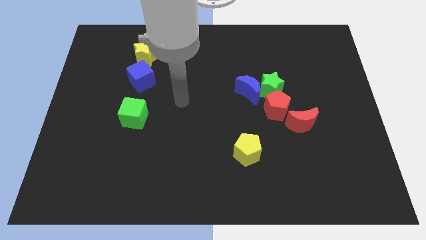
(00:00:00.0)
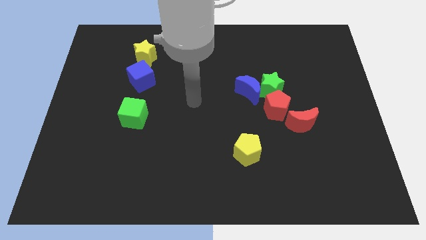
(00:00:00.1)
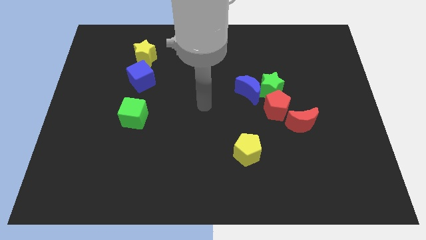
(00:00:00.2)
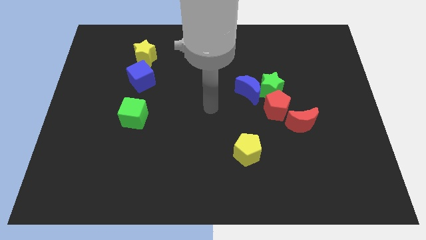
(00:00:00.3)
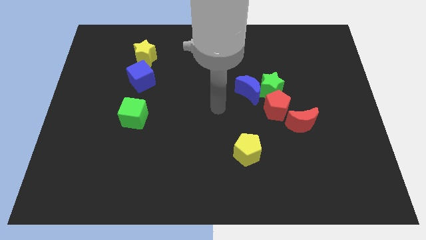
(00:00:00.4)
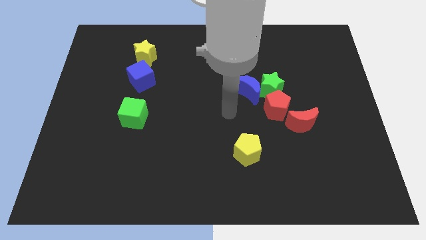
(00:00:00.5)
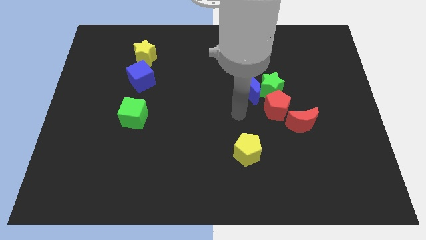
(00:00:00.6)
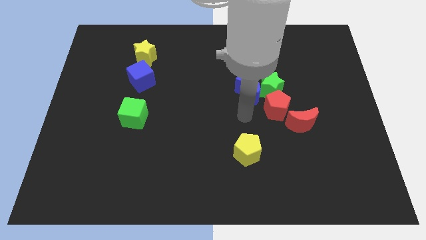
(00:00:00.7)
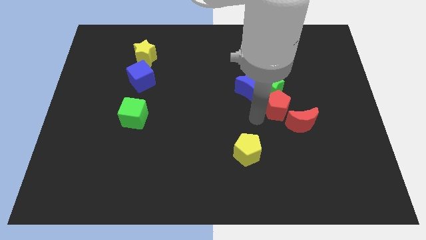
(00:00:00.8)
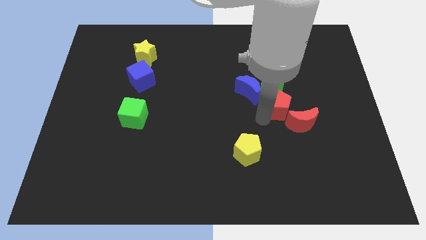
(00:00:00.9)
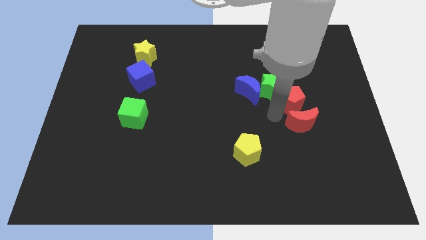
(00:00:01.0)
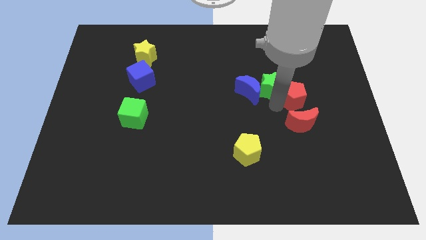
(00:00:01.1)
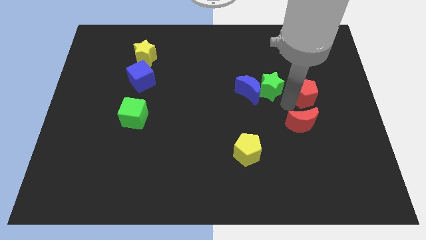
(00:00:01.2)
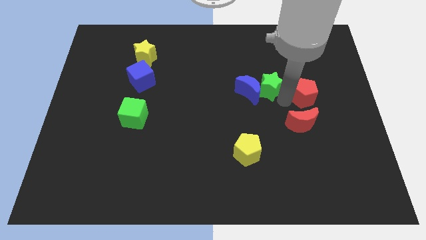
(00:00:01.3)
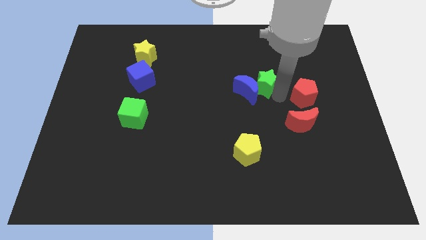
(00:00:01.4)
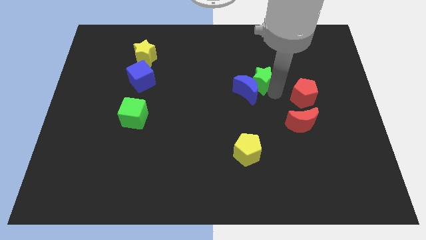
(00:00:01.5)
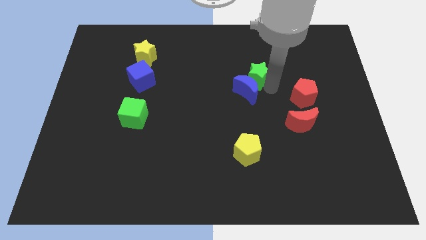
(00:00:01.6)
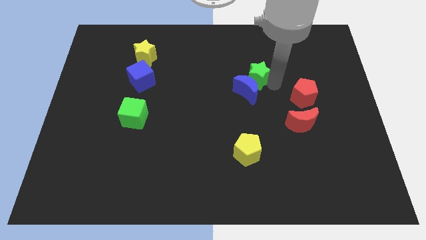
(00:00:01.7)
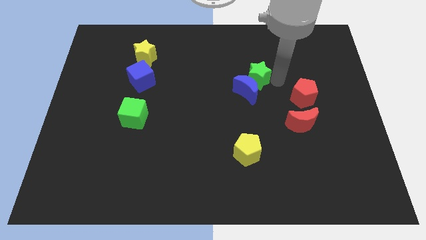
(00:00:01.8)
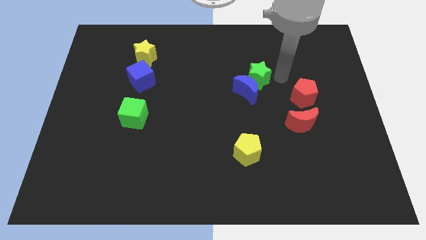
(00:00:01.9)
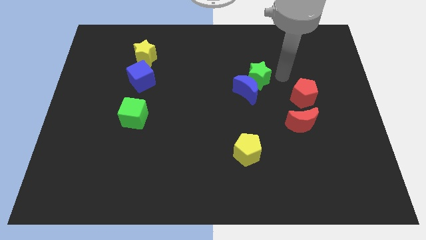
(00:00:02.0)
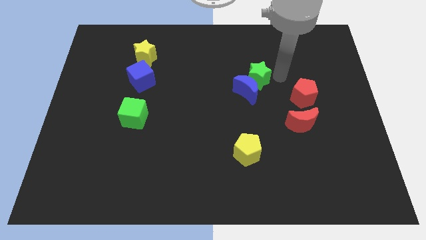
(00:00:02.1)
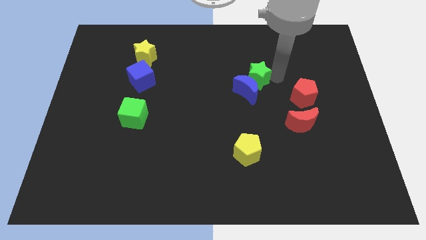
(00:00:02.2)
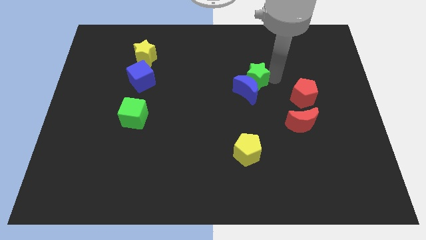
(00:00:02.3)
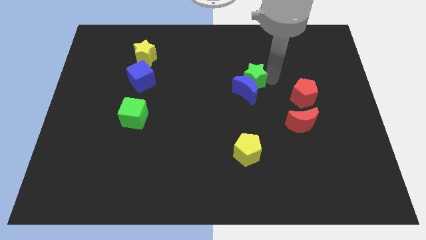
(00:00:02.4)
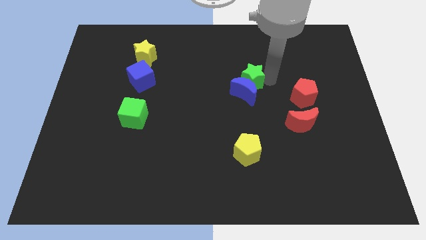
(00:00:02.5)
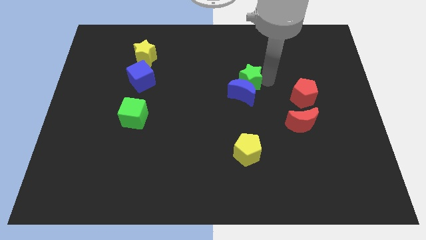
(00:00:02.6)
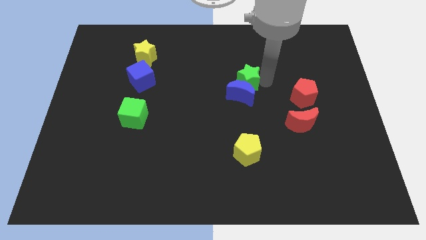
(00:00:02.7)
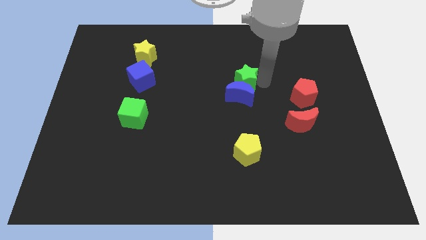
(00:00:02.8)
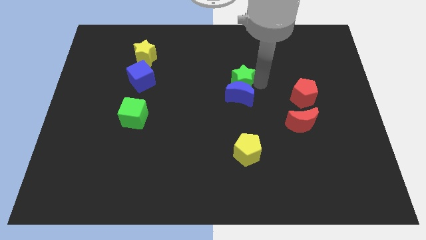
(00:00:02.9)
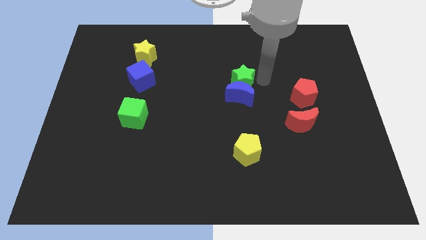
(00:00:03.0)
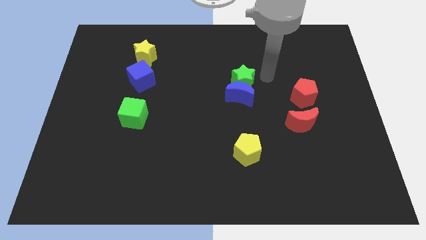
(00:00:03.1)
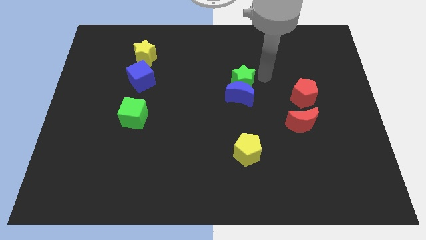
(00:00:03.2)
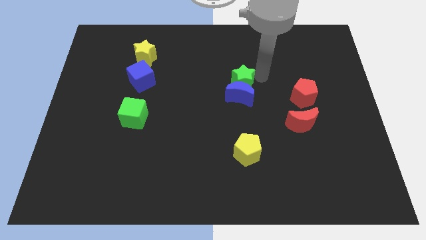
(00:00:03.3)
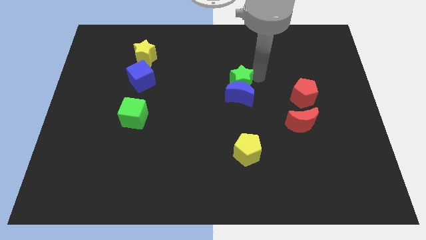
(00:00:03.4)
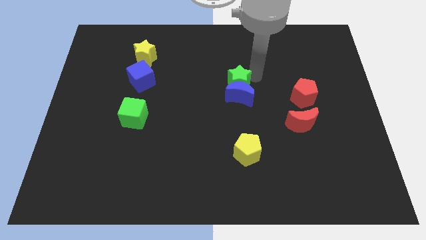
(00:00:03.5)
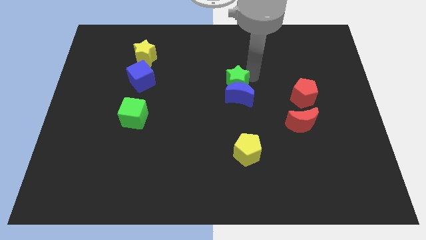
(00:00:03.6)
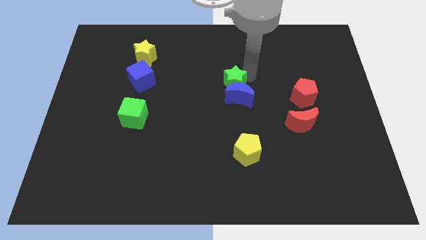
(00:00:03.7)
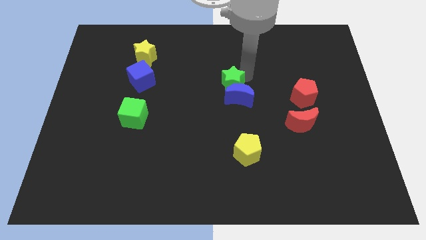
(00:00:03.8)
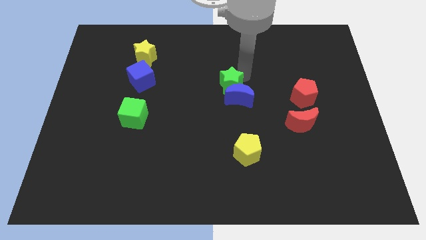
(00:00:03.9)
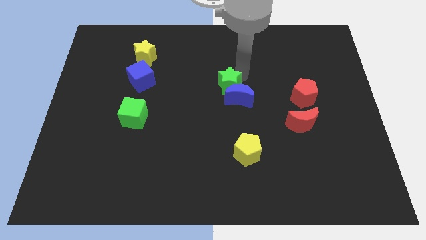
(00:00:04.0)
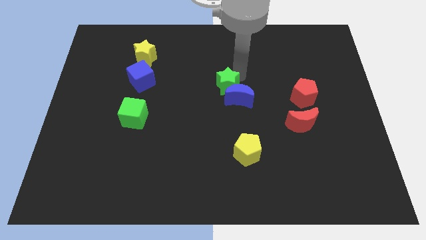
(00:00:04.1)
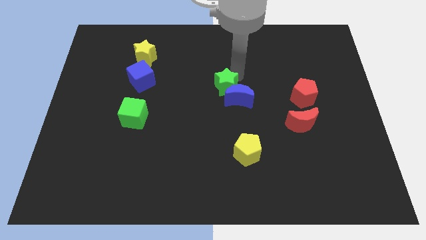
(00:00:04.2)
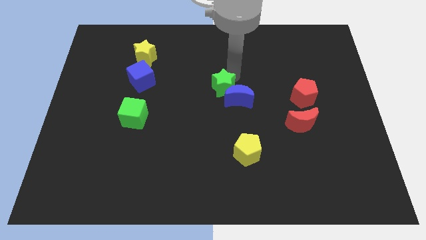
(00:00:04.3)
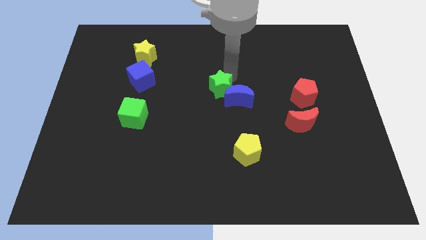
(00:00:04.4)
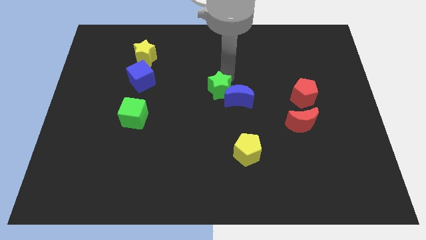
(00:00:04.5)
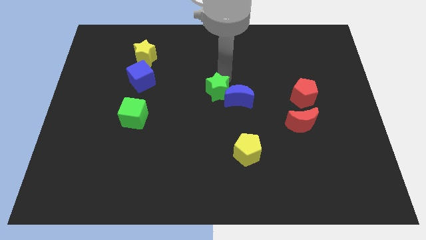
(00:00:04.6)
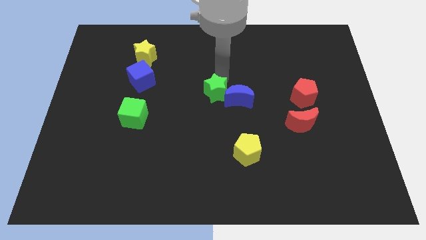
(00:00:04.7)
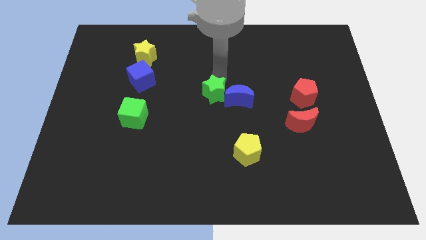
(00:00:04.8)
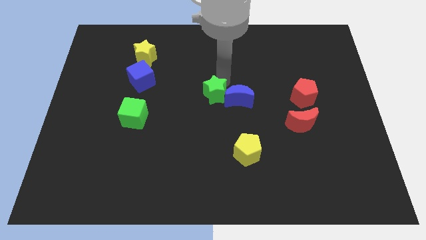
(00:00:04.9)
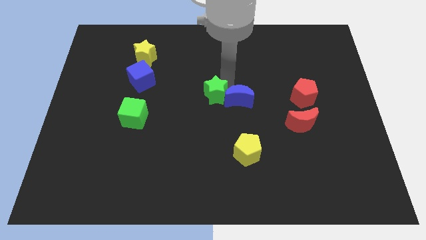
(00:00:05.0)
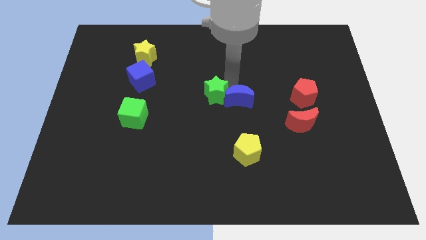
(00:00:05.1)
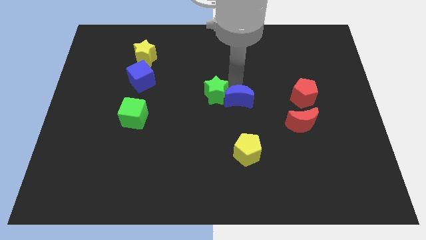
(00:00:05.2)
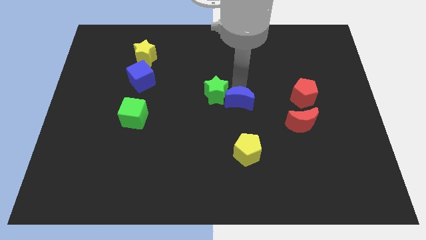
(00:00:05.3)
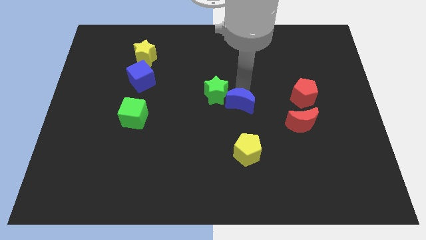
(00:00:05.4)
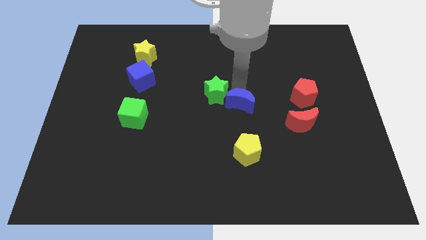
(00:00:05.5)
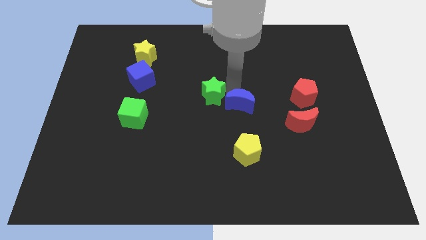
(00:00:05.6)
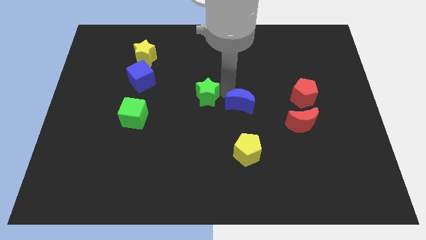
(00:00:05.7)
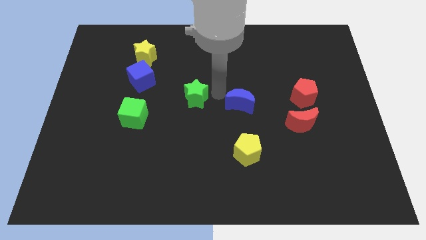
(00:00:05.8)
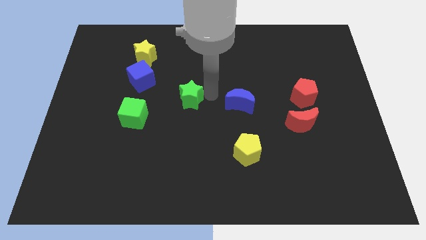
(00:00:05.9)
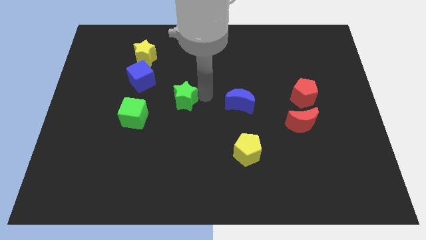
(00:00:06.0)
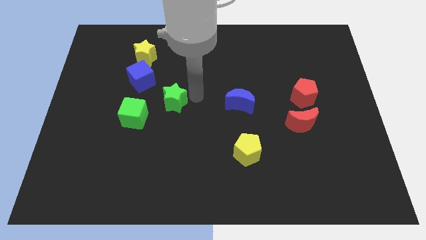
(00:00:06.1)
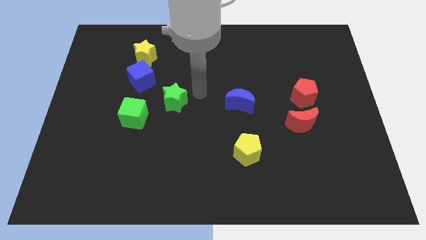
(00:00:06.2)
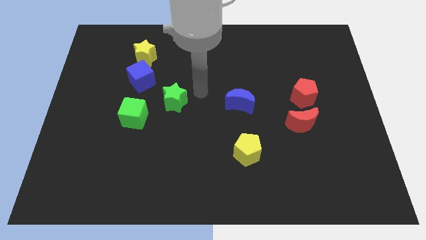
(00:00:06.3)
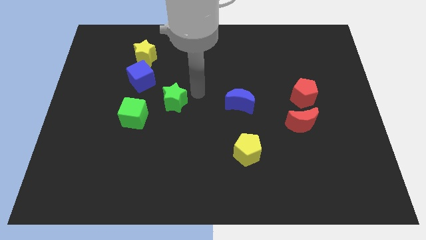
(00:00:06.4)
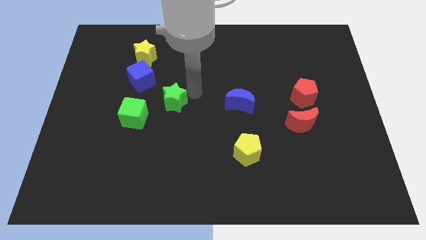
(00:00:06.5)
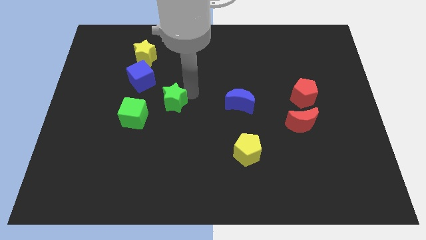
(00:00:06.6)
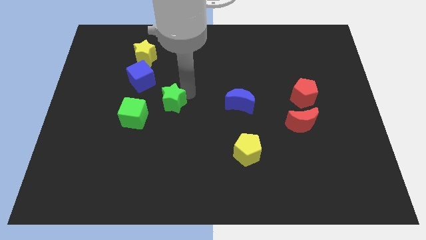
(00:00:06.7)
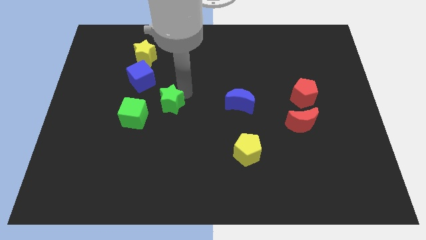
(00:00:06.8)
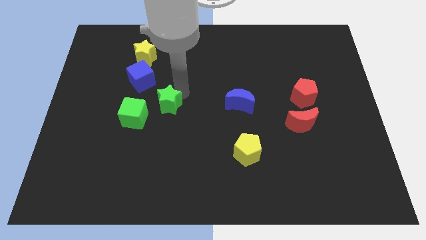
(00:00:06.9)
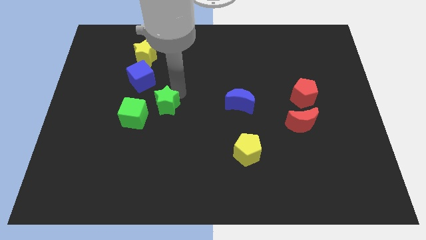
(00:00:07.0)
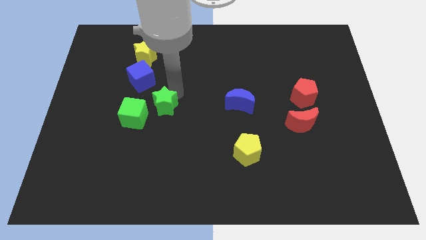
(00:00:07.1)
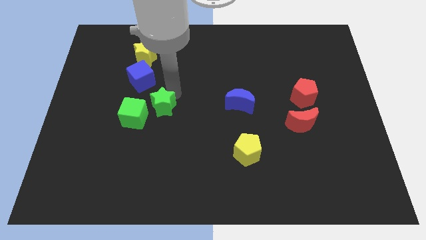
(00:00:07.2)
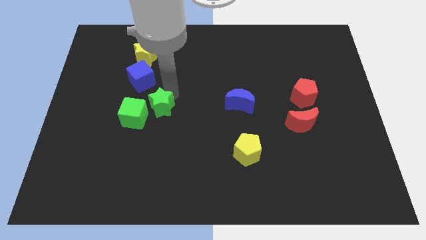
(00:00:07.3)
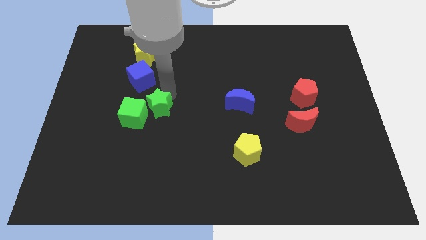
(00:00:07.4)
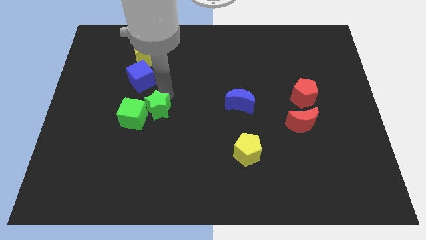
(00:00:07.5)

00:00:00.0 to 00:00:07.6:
move the green star close to the green cube
